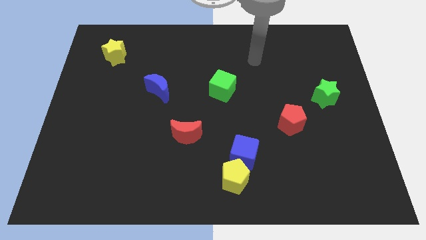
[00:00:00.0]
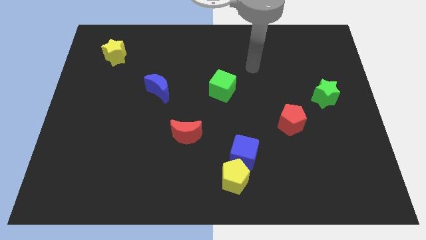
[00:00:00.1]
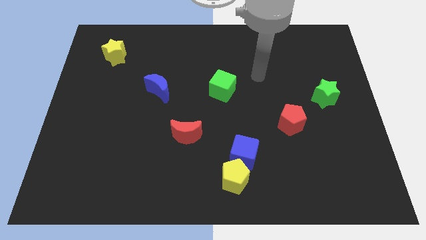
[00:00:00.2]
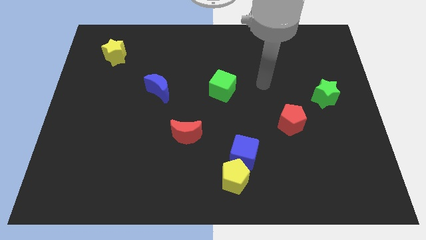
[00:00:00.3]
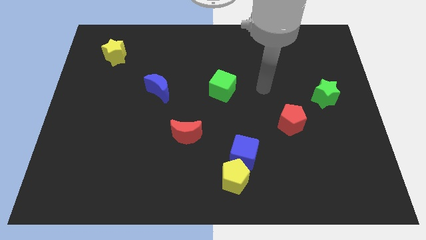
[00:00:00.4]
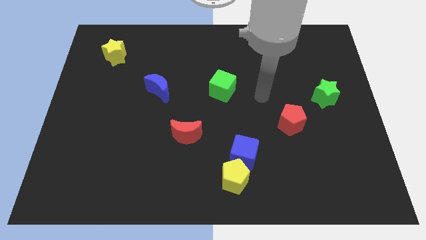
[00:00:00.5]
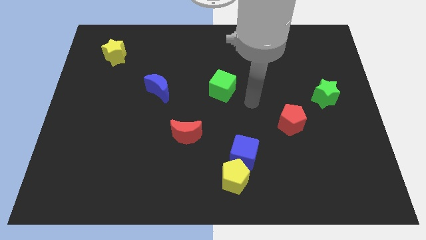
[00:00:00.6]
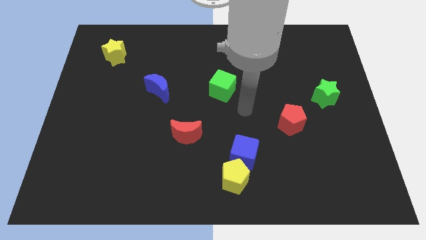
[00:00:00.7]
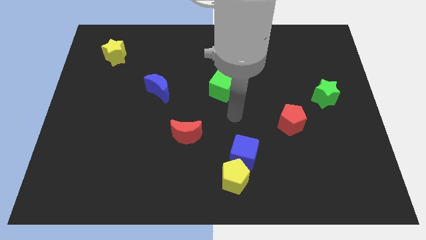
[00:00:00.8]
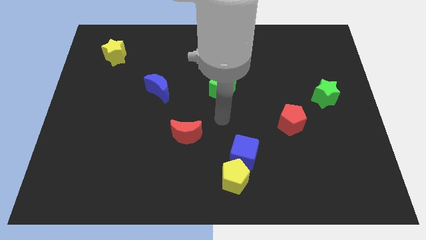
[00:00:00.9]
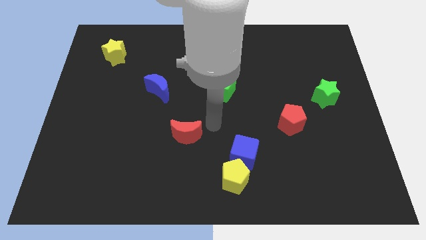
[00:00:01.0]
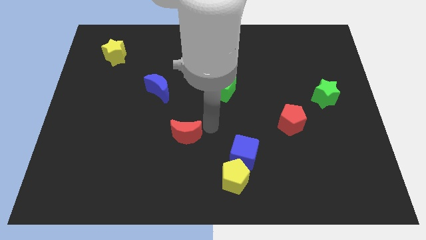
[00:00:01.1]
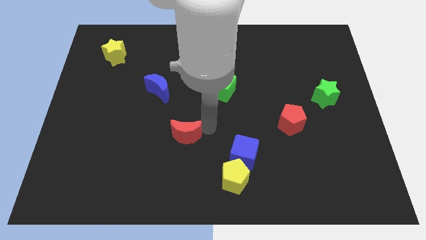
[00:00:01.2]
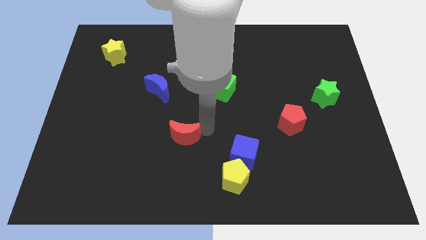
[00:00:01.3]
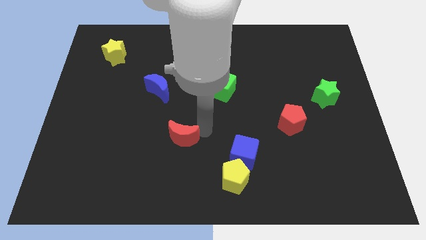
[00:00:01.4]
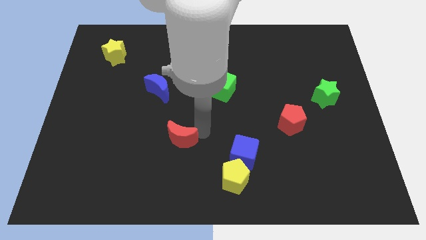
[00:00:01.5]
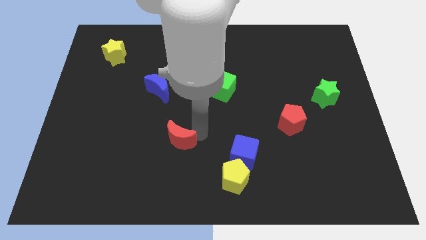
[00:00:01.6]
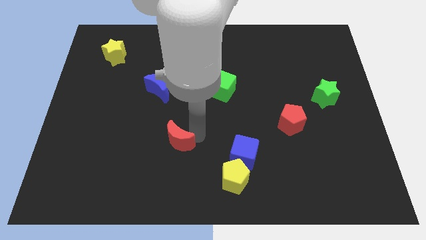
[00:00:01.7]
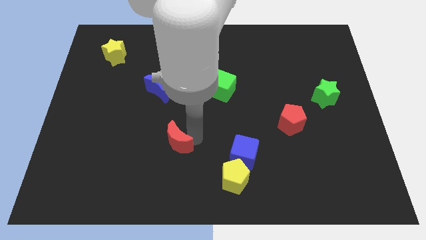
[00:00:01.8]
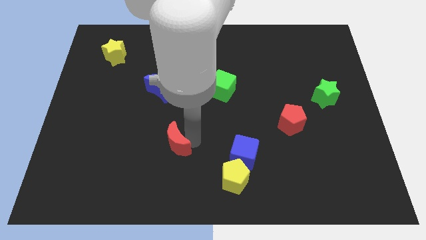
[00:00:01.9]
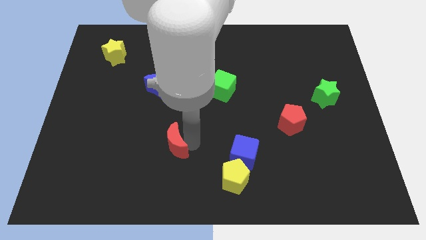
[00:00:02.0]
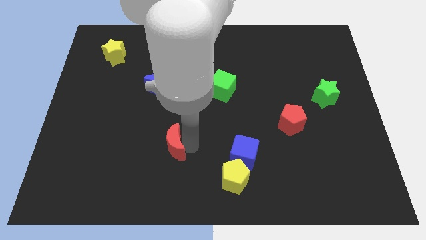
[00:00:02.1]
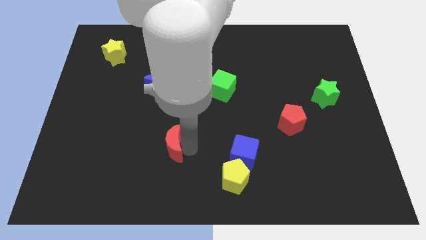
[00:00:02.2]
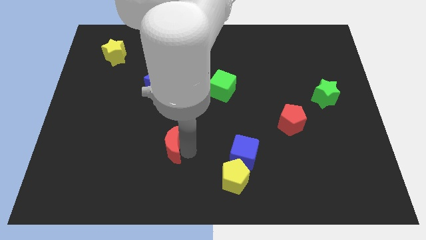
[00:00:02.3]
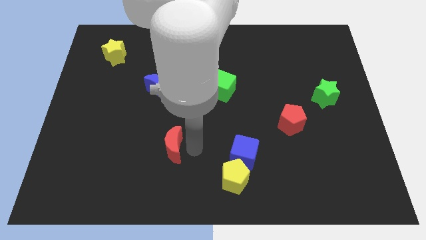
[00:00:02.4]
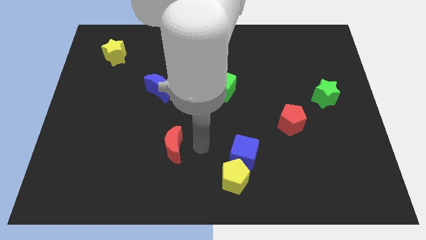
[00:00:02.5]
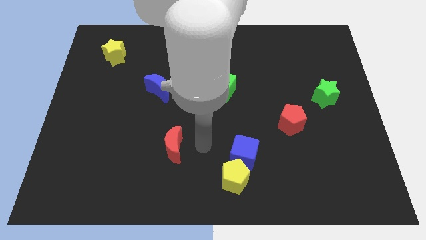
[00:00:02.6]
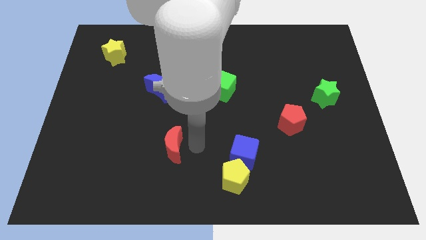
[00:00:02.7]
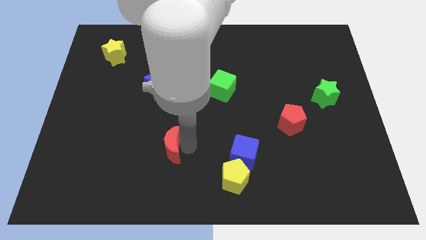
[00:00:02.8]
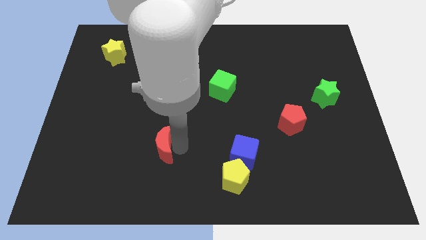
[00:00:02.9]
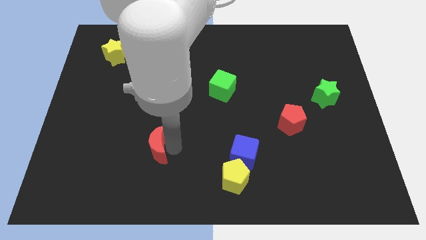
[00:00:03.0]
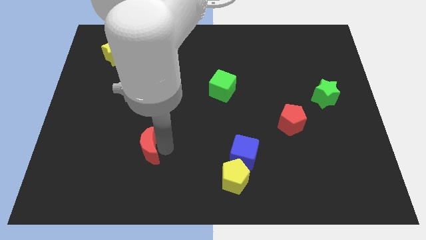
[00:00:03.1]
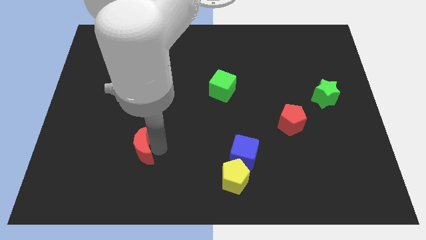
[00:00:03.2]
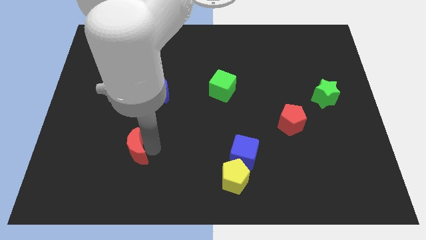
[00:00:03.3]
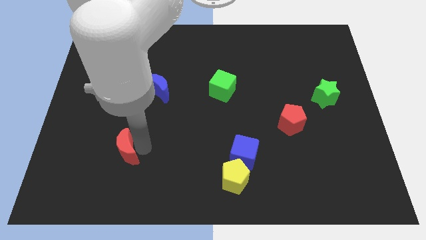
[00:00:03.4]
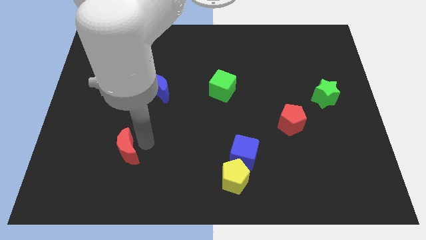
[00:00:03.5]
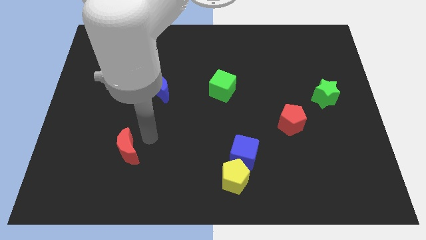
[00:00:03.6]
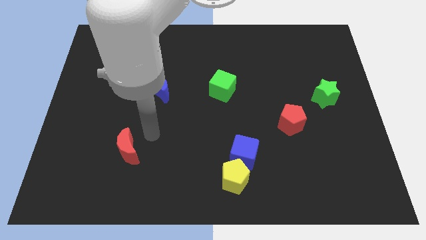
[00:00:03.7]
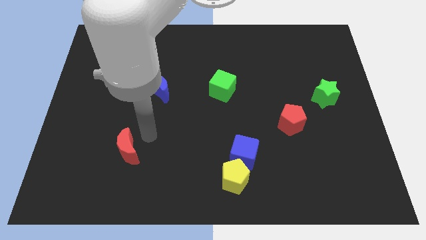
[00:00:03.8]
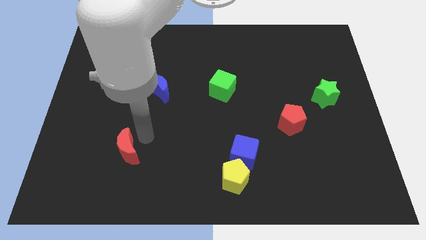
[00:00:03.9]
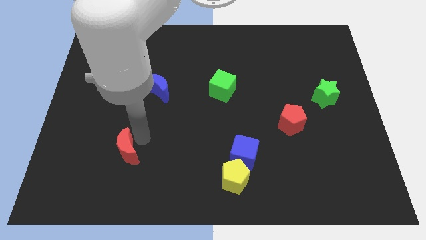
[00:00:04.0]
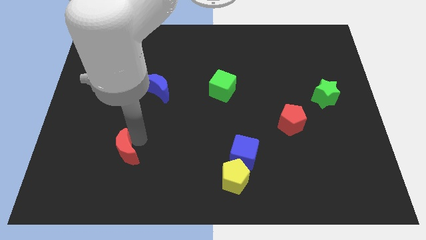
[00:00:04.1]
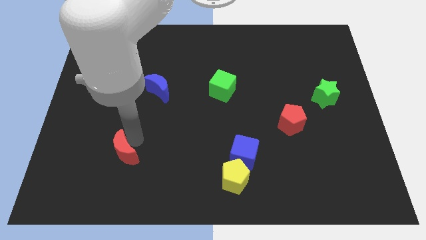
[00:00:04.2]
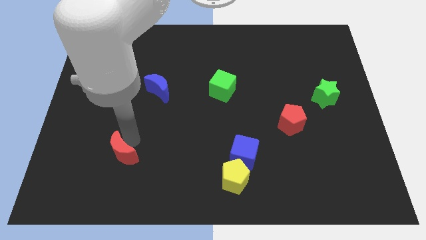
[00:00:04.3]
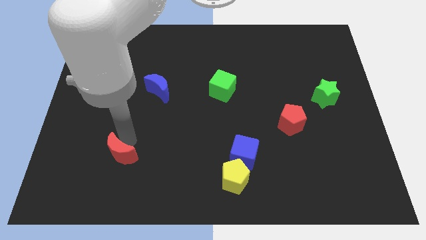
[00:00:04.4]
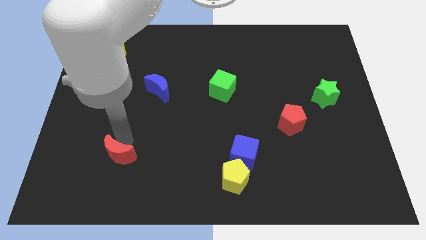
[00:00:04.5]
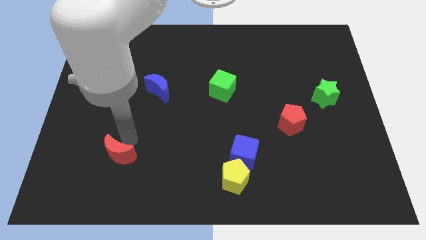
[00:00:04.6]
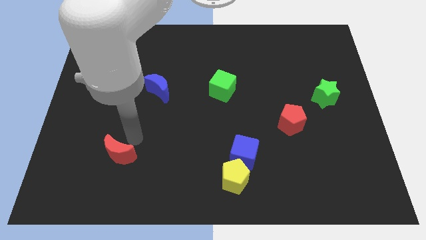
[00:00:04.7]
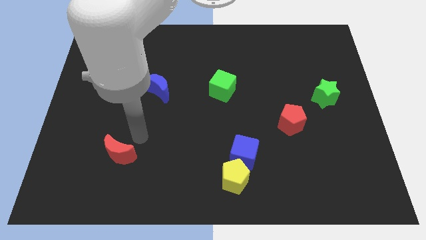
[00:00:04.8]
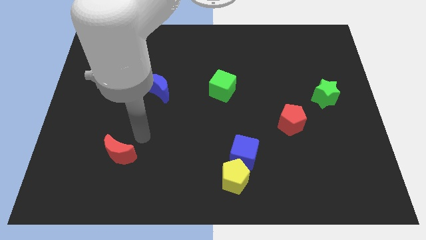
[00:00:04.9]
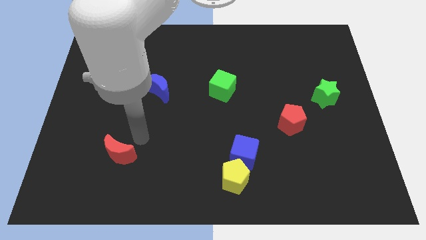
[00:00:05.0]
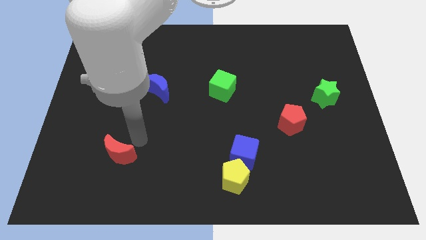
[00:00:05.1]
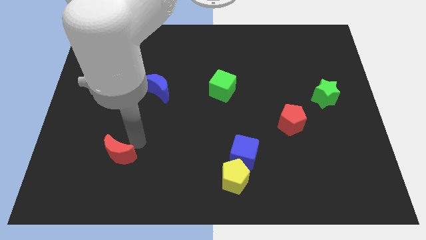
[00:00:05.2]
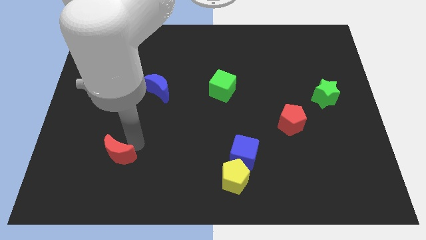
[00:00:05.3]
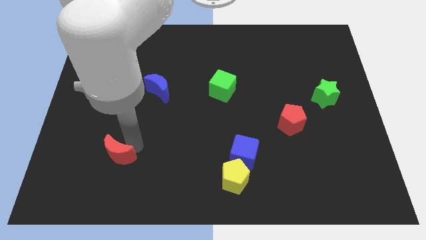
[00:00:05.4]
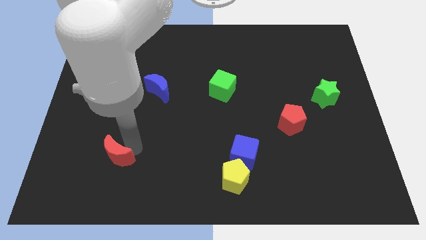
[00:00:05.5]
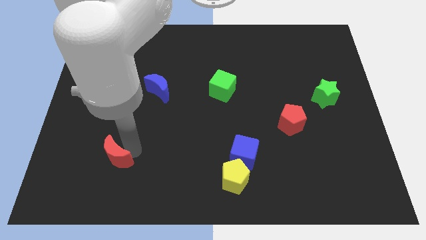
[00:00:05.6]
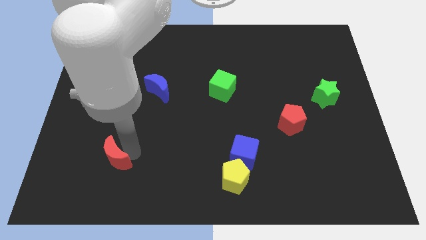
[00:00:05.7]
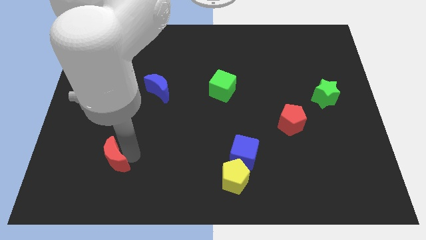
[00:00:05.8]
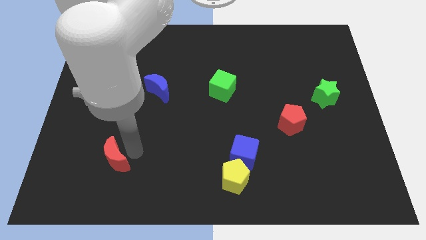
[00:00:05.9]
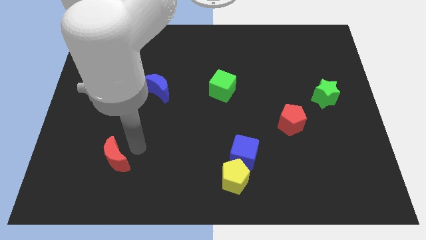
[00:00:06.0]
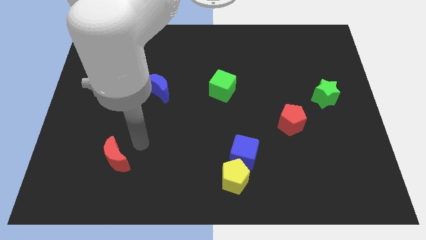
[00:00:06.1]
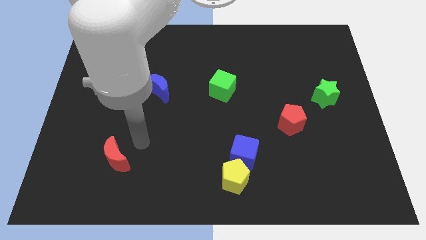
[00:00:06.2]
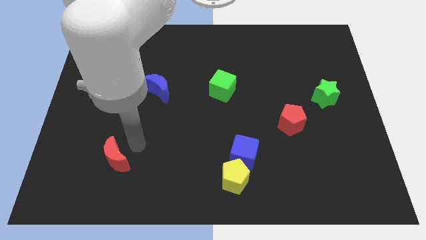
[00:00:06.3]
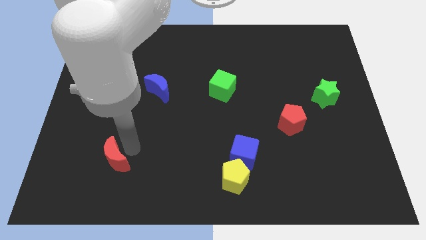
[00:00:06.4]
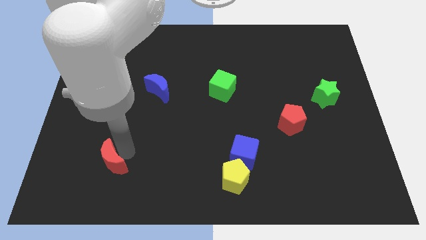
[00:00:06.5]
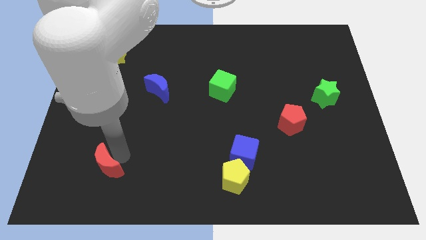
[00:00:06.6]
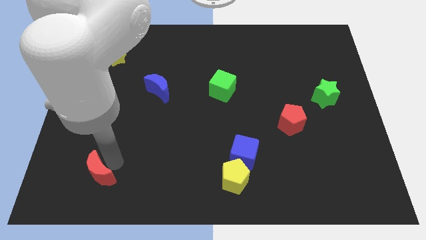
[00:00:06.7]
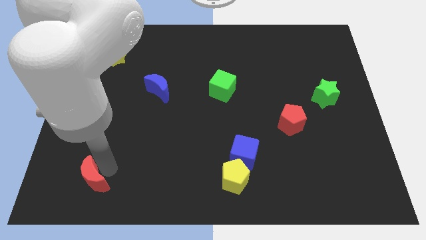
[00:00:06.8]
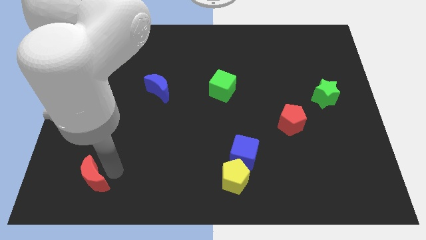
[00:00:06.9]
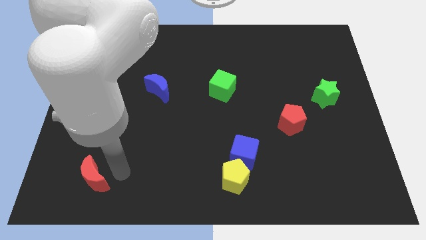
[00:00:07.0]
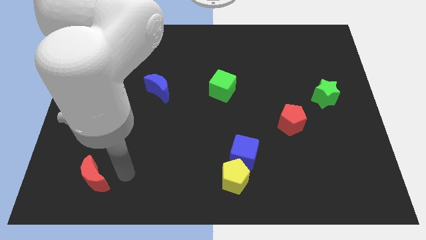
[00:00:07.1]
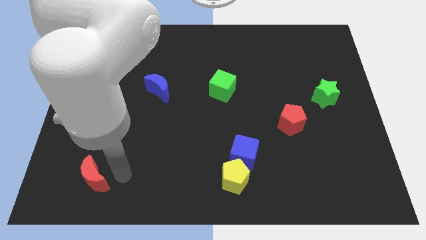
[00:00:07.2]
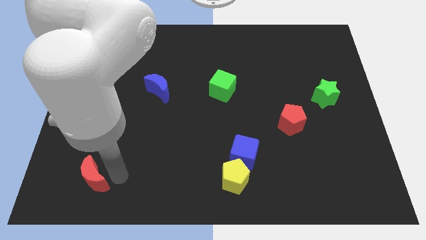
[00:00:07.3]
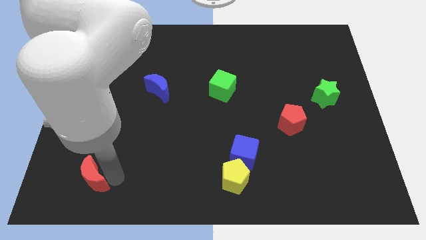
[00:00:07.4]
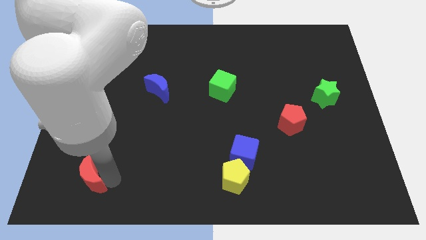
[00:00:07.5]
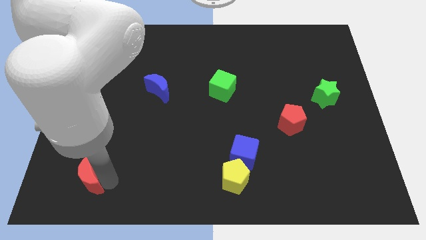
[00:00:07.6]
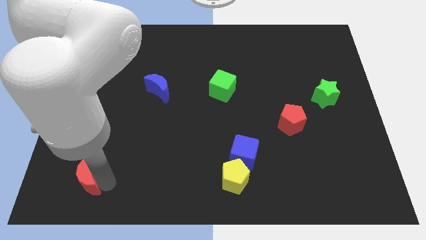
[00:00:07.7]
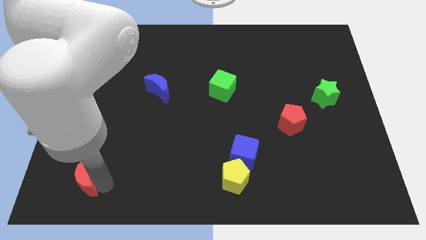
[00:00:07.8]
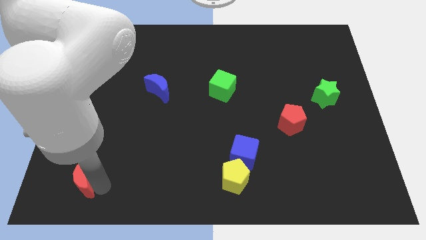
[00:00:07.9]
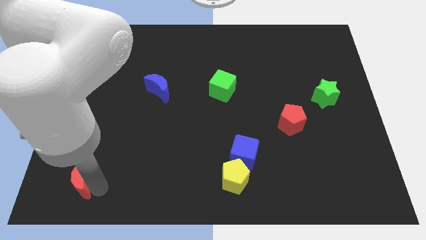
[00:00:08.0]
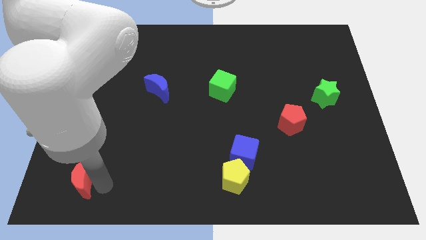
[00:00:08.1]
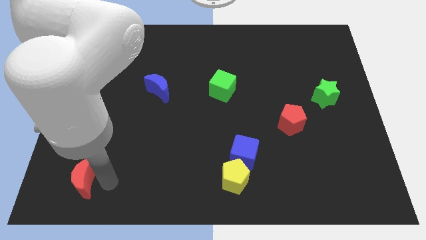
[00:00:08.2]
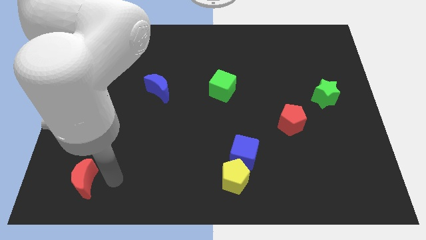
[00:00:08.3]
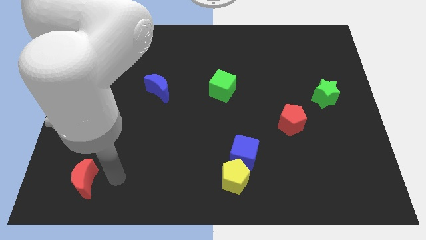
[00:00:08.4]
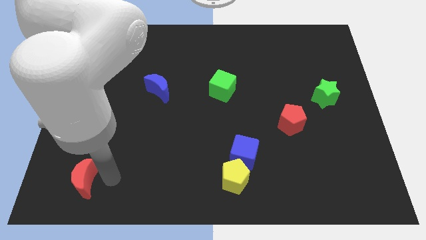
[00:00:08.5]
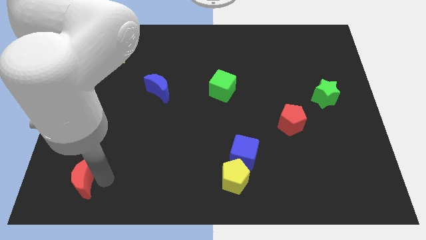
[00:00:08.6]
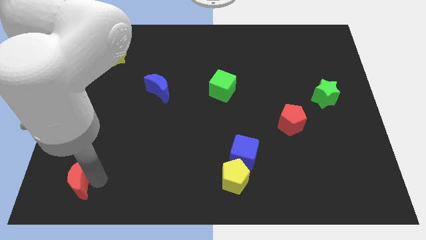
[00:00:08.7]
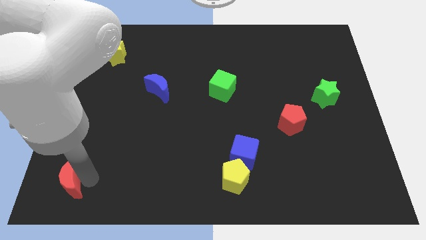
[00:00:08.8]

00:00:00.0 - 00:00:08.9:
move the red moon to the bottom left of the board
